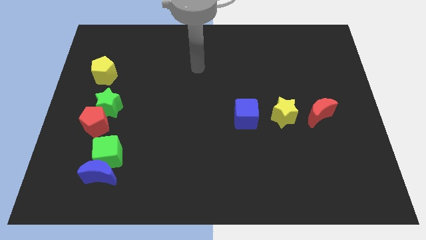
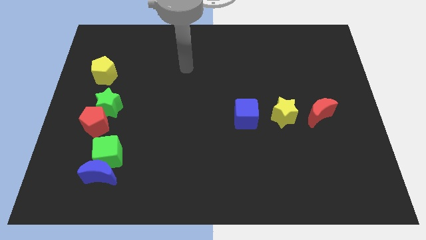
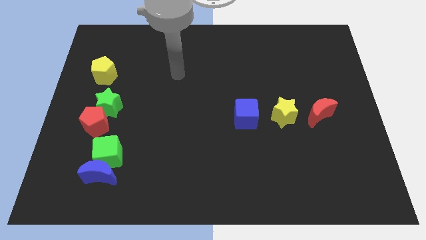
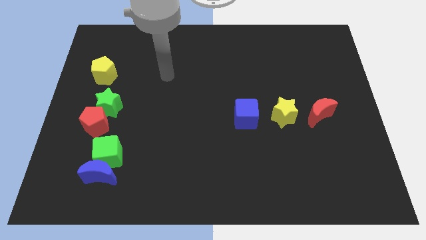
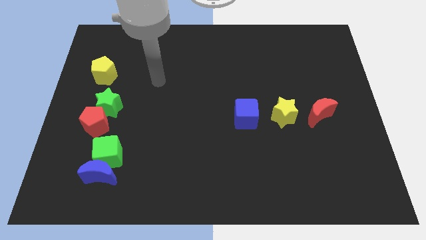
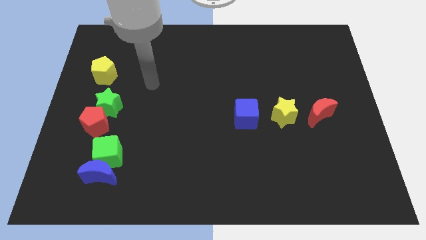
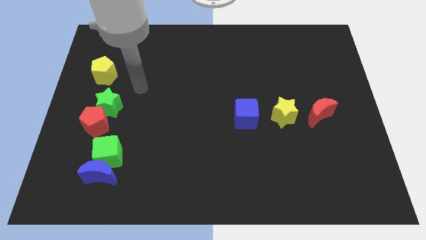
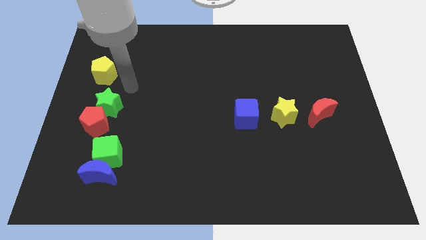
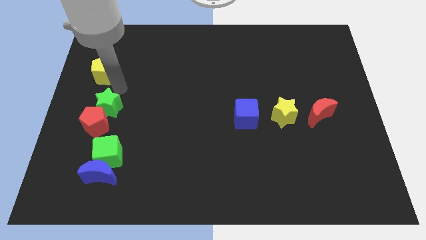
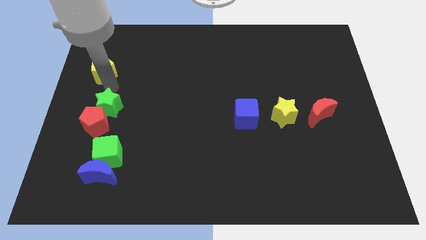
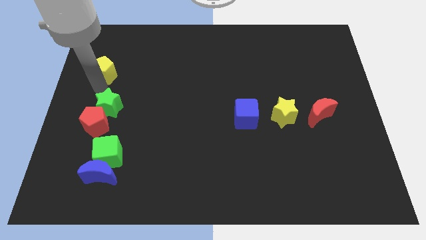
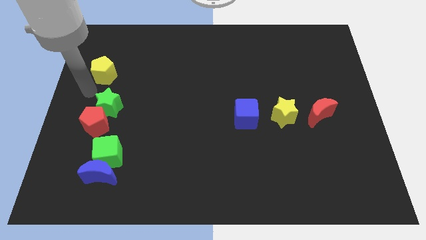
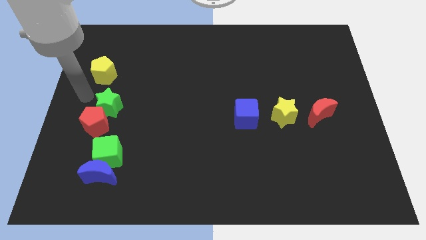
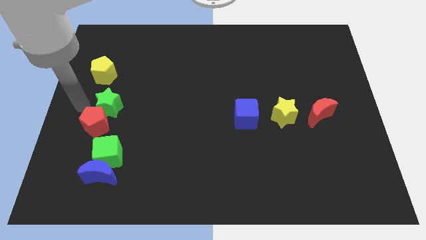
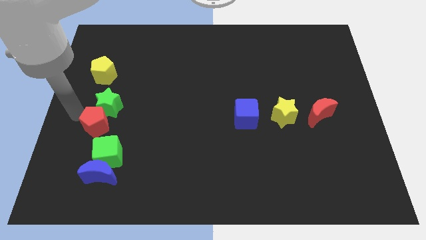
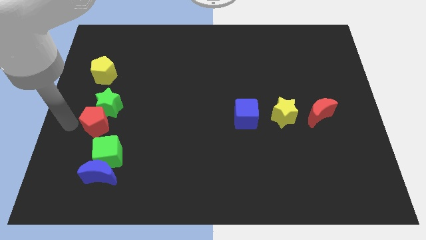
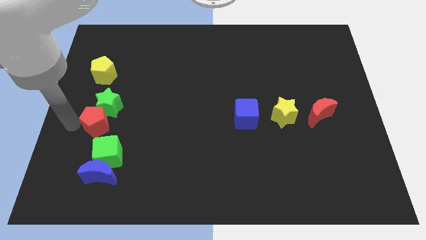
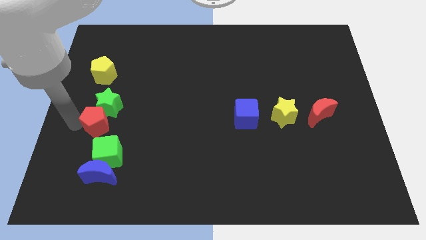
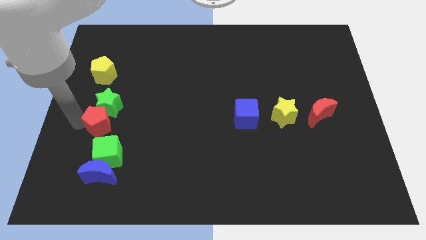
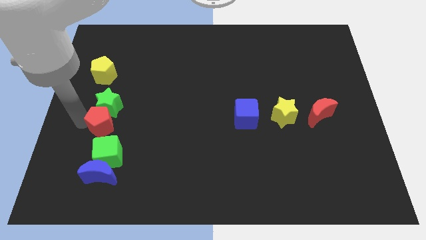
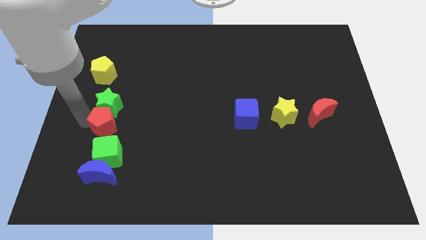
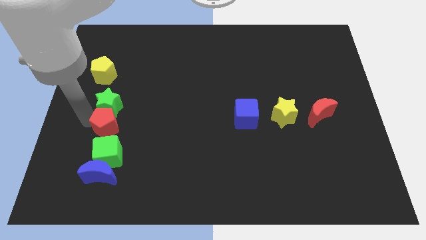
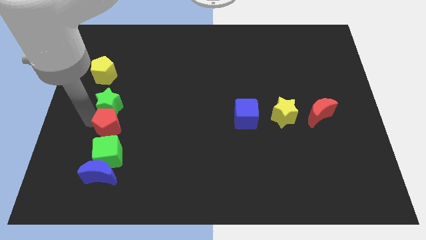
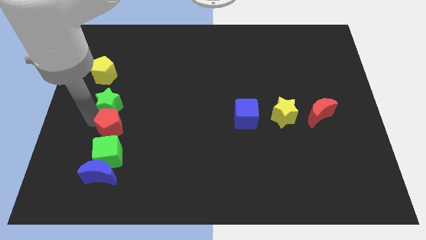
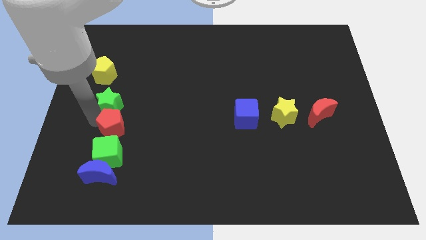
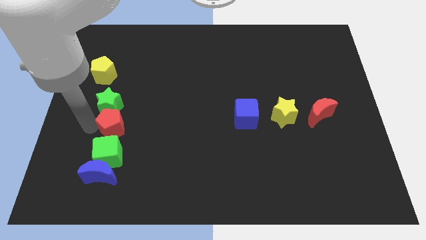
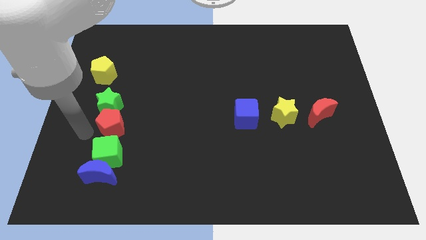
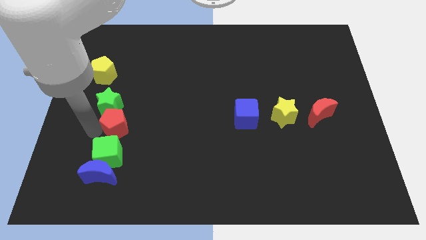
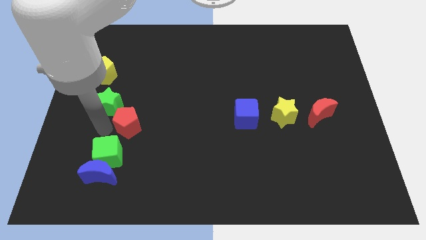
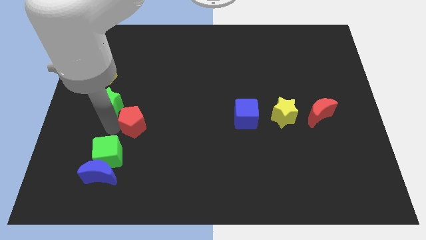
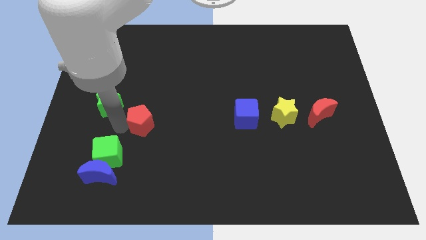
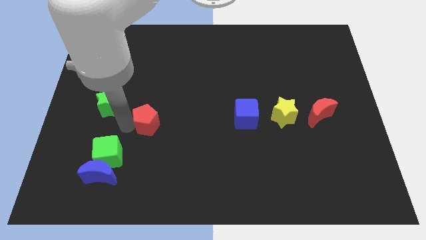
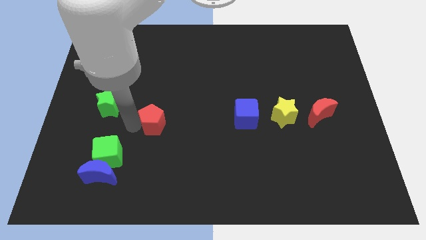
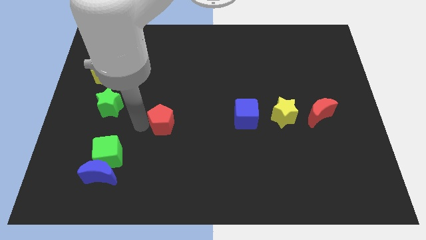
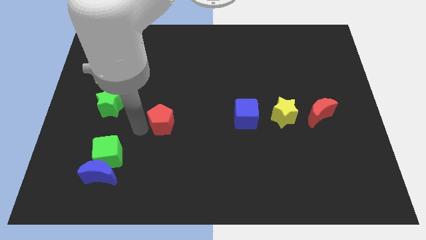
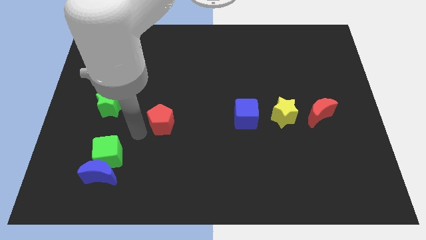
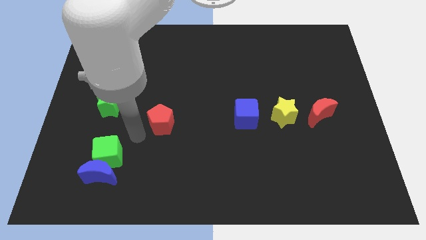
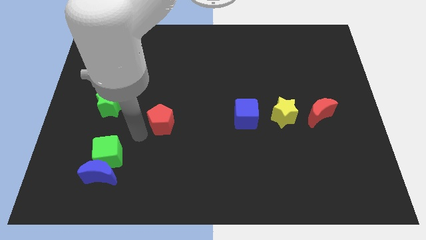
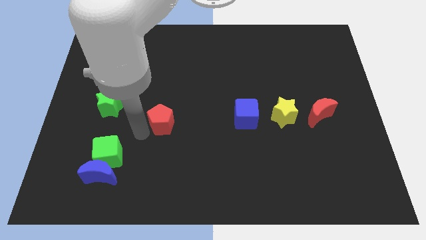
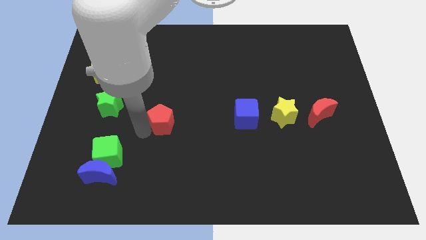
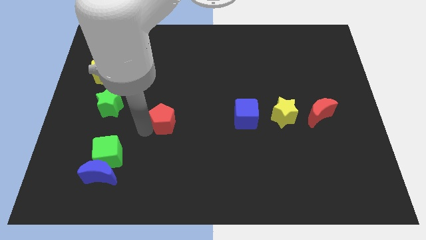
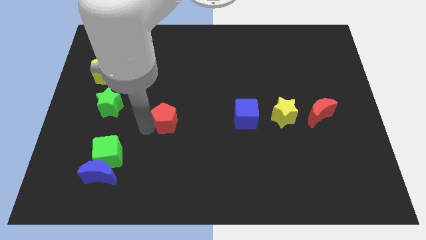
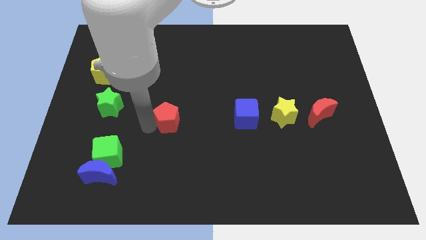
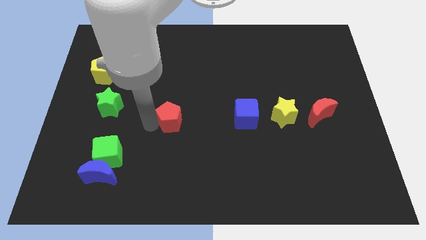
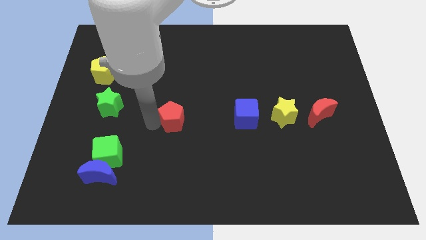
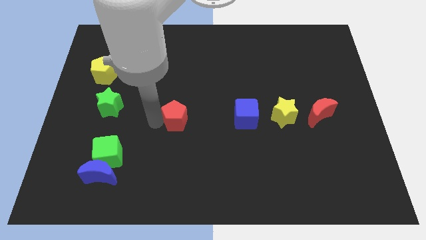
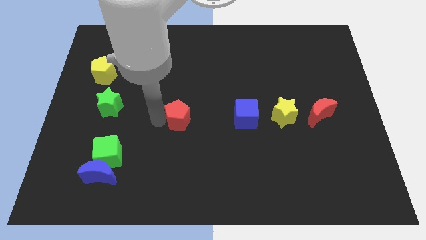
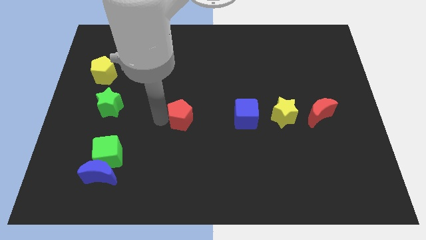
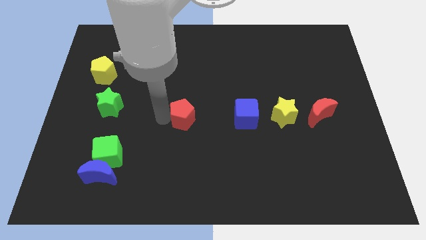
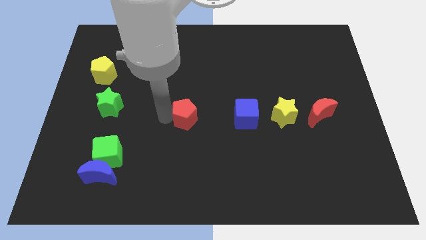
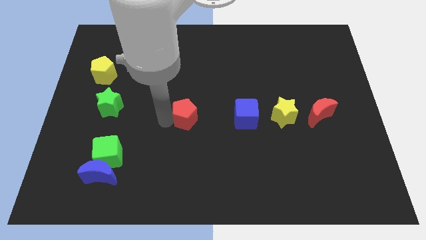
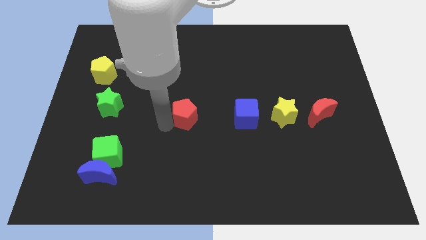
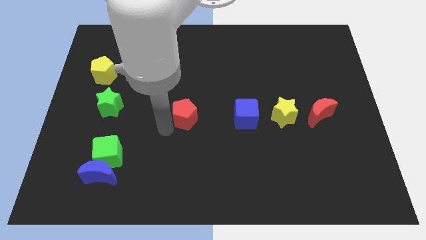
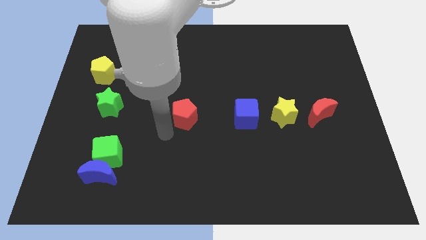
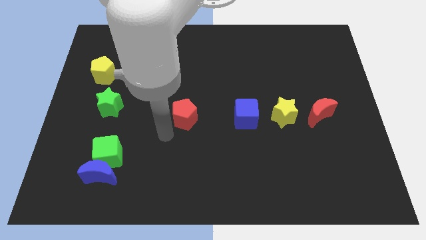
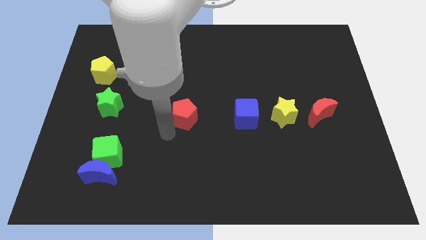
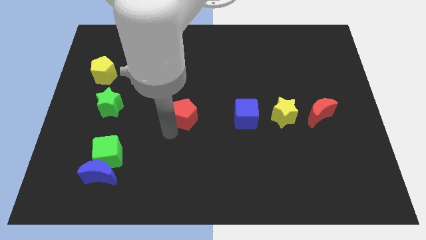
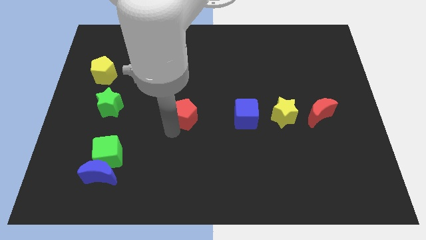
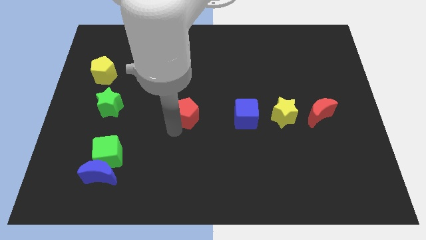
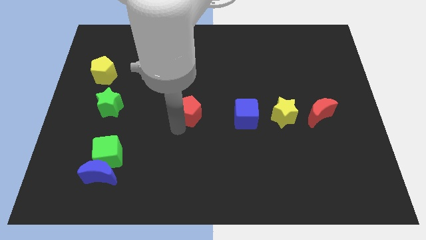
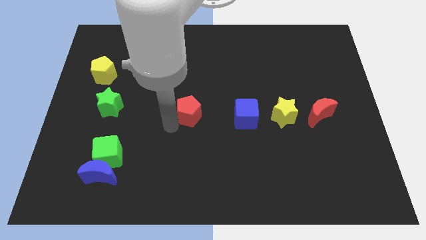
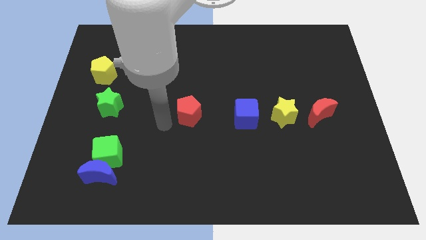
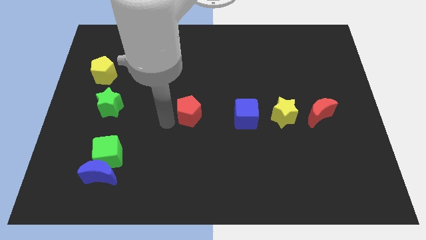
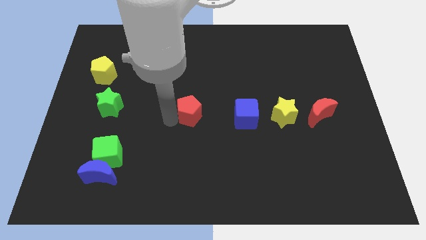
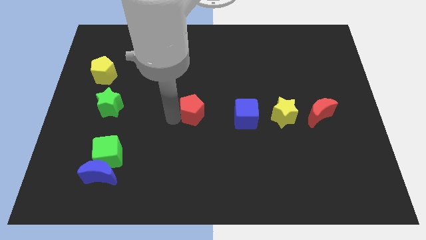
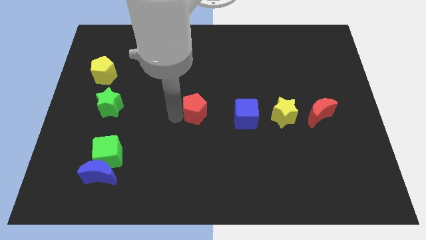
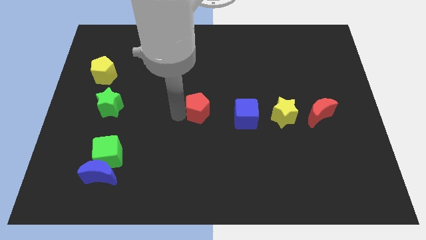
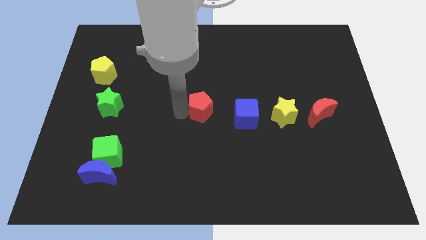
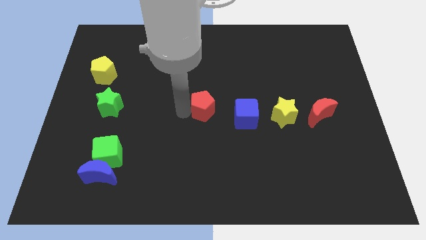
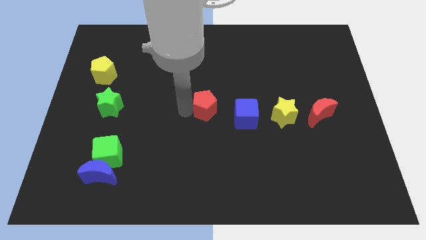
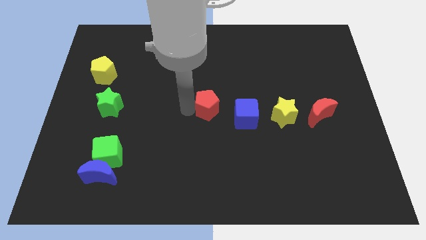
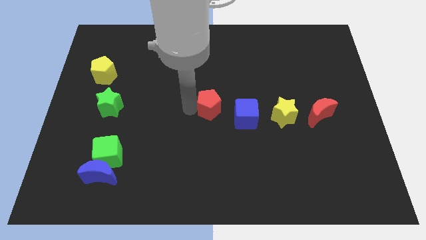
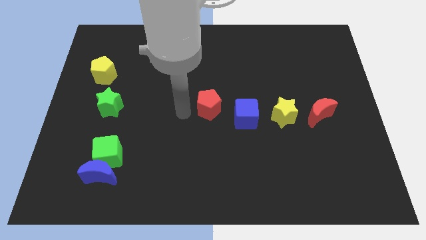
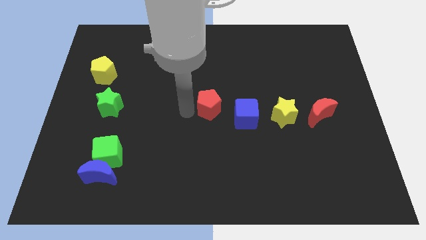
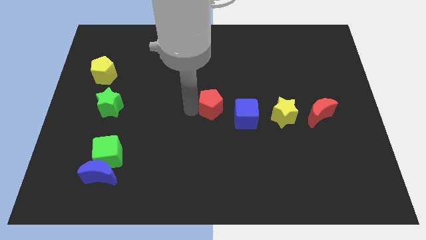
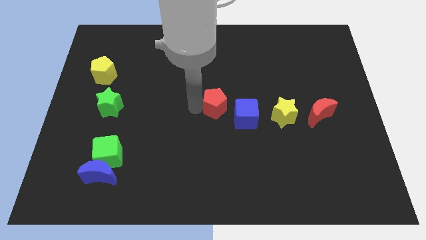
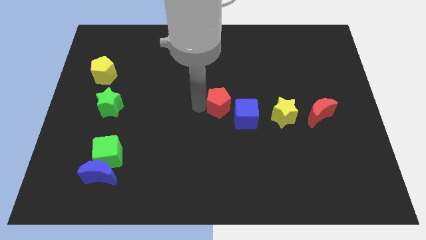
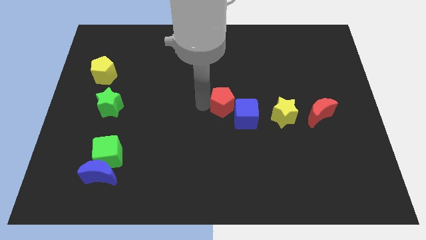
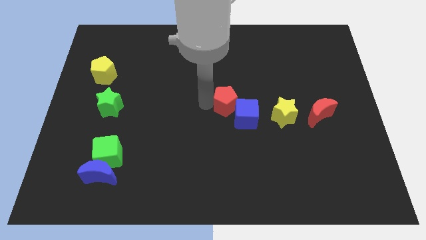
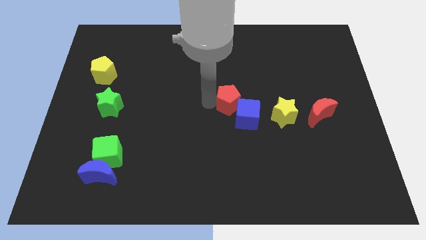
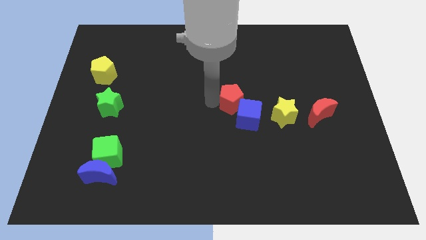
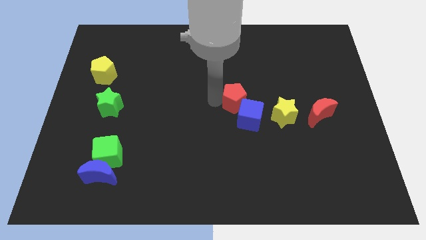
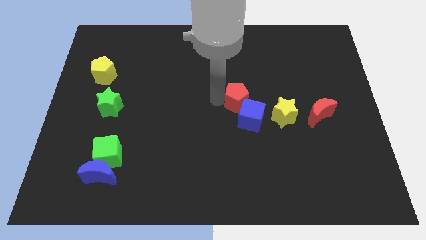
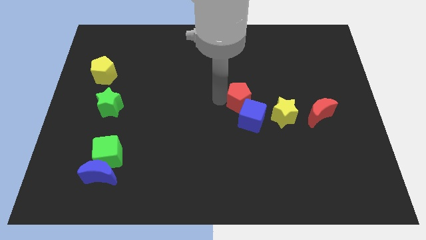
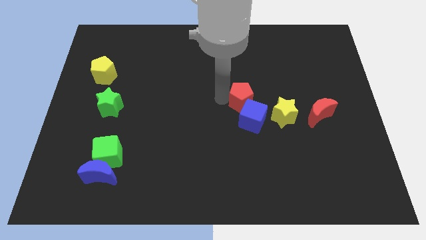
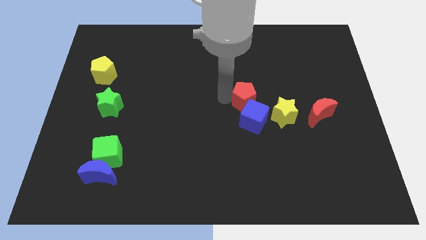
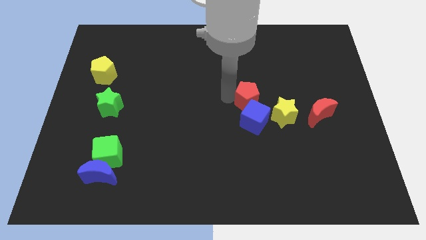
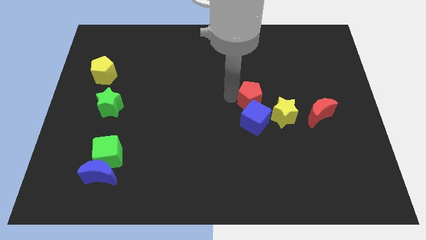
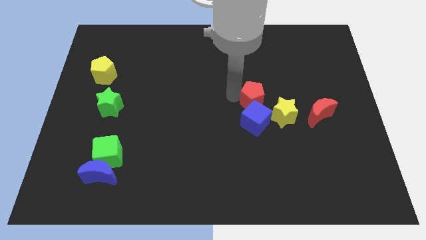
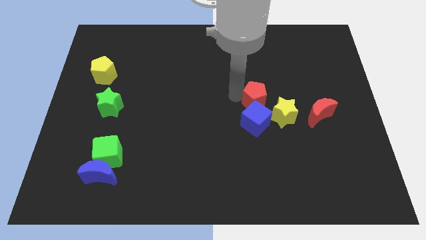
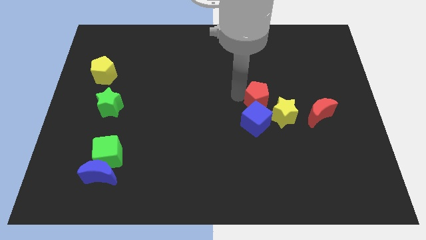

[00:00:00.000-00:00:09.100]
slide the red pentagon to the left of the red moon
